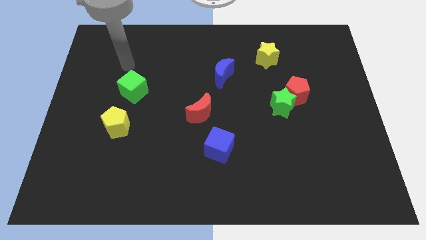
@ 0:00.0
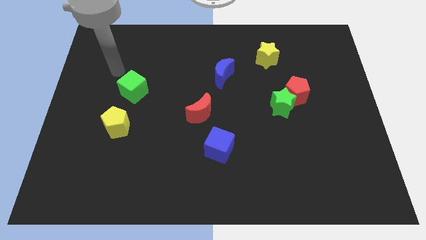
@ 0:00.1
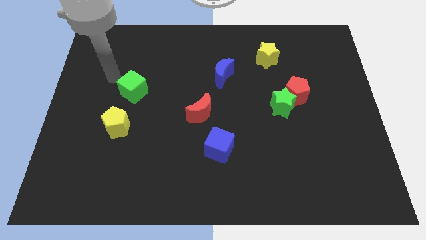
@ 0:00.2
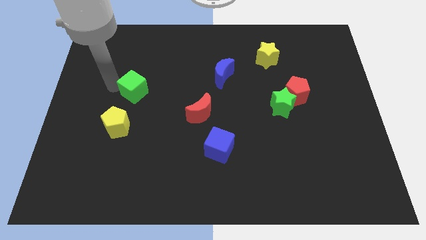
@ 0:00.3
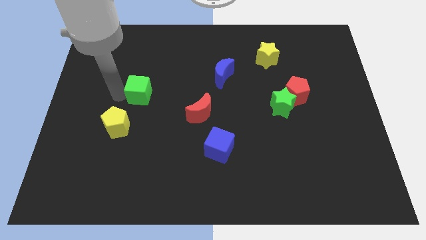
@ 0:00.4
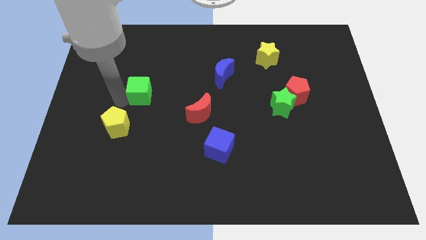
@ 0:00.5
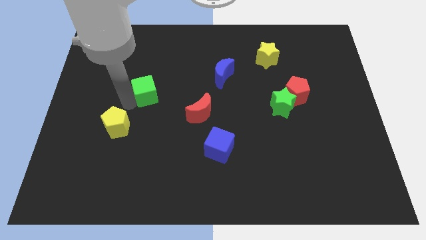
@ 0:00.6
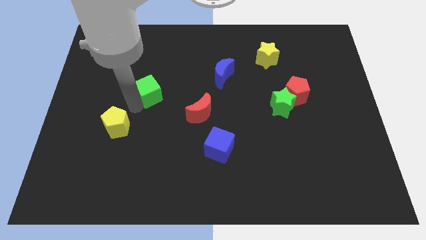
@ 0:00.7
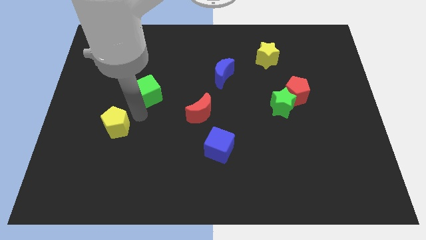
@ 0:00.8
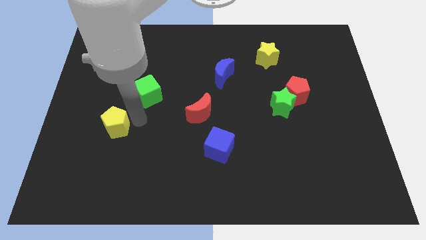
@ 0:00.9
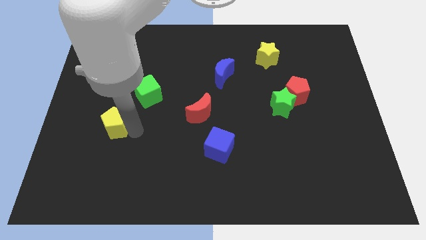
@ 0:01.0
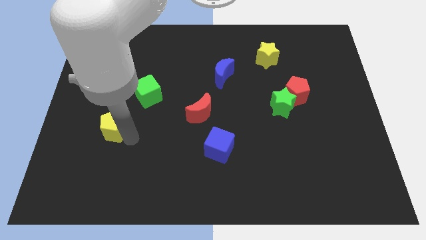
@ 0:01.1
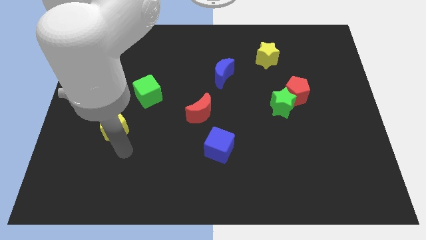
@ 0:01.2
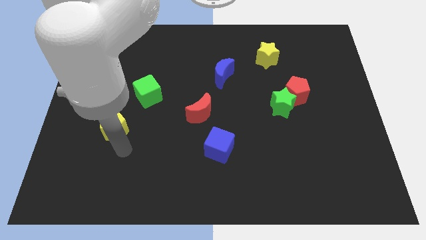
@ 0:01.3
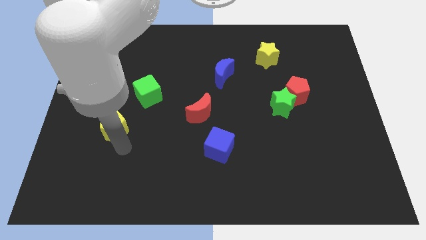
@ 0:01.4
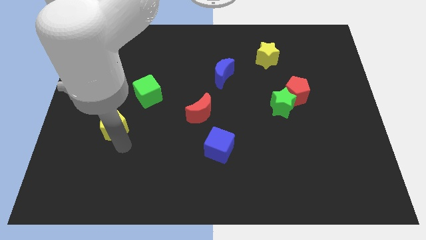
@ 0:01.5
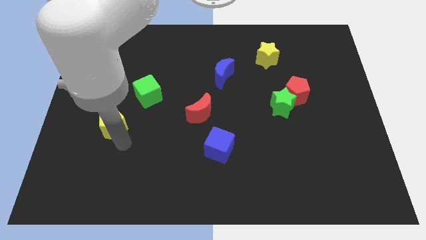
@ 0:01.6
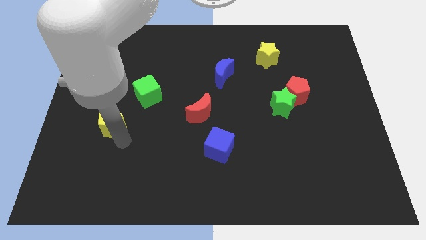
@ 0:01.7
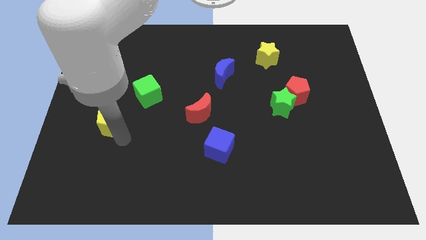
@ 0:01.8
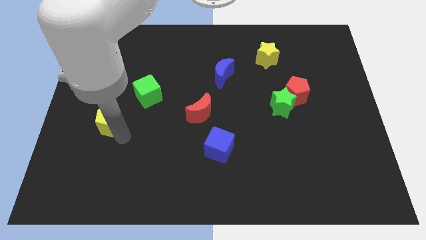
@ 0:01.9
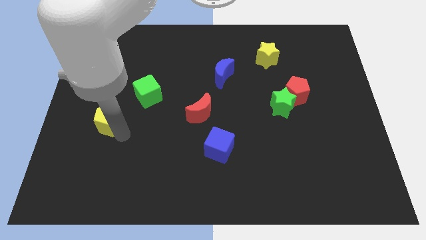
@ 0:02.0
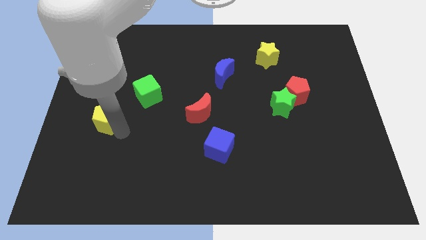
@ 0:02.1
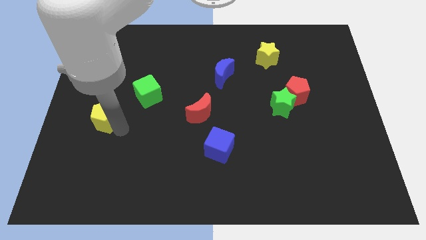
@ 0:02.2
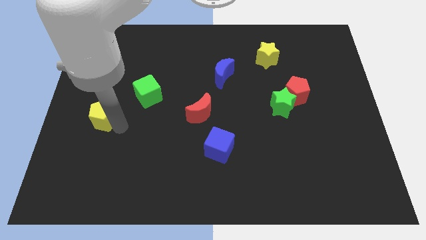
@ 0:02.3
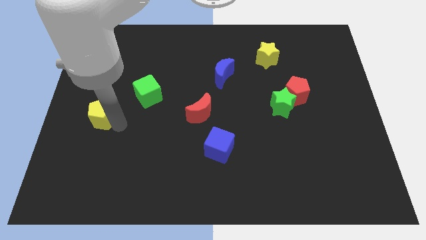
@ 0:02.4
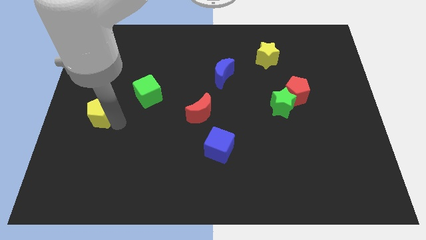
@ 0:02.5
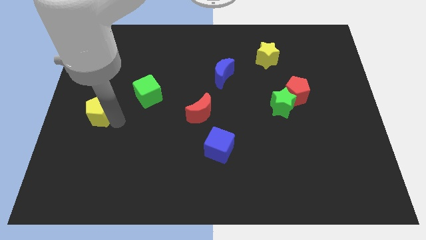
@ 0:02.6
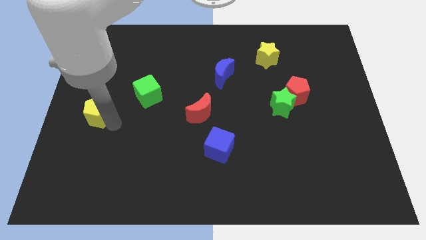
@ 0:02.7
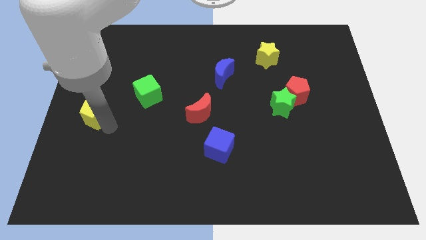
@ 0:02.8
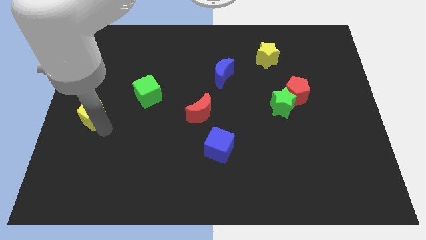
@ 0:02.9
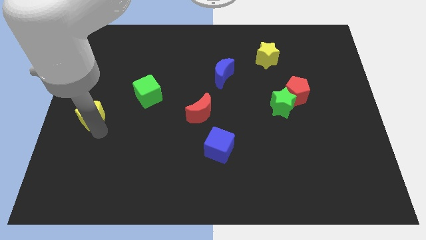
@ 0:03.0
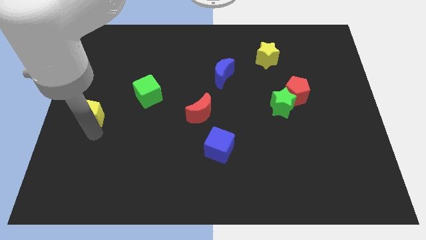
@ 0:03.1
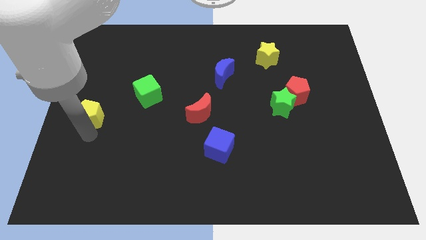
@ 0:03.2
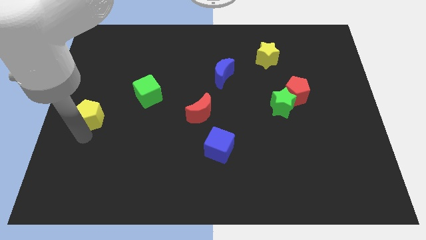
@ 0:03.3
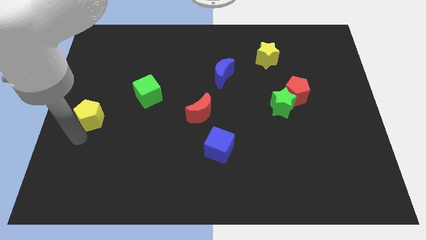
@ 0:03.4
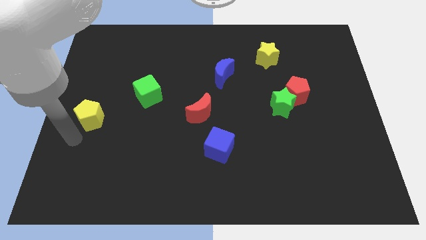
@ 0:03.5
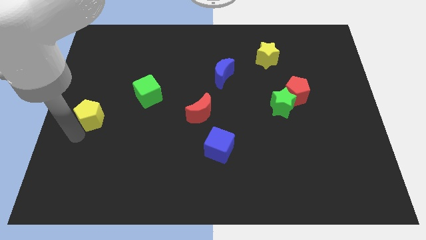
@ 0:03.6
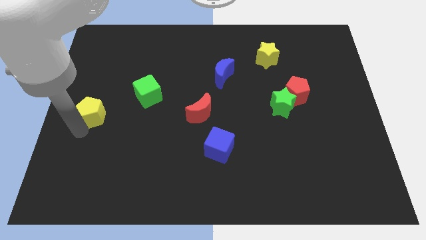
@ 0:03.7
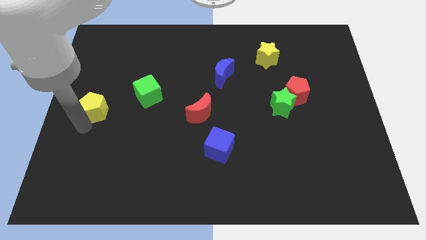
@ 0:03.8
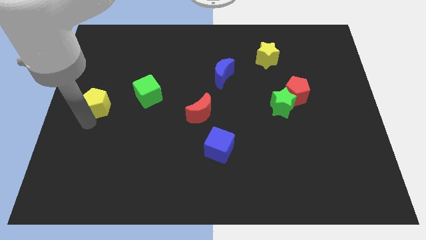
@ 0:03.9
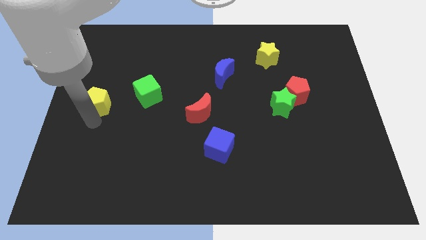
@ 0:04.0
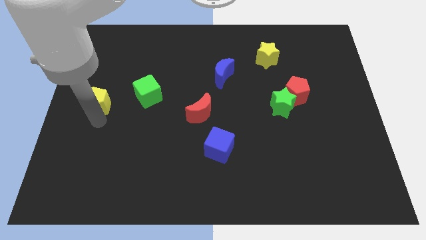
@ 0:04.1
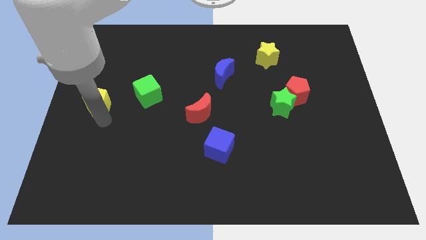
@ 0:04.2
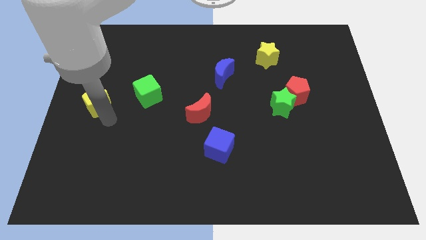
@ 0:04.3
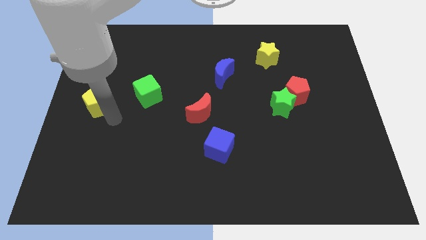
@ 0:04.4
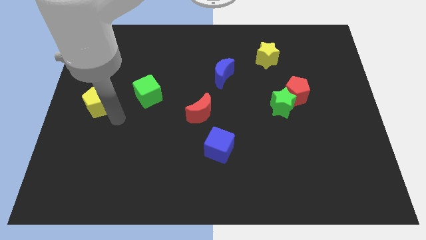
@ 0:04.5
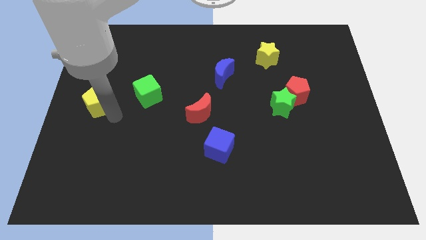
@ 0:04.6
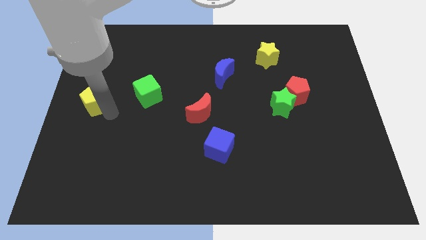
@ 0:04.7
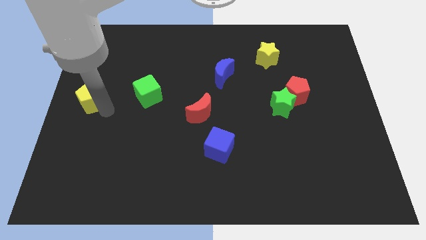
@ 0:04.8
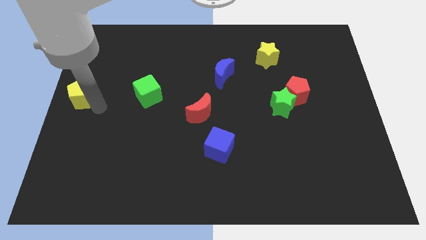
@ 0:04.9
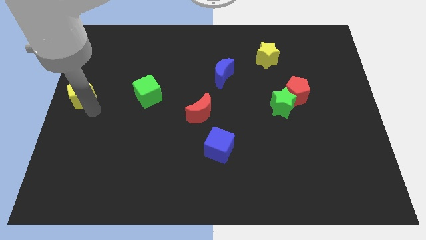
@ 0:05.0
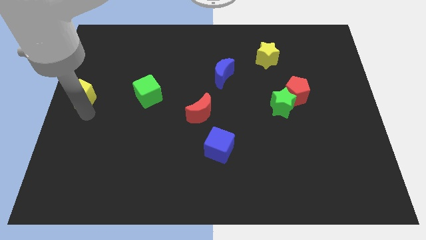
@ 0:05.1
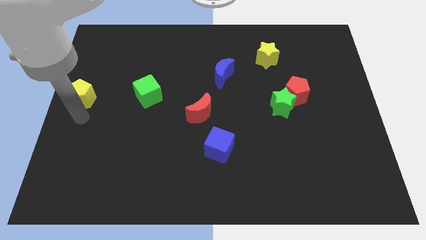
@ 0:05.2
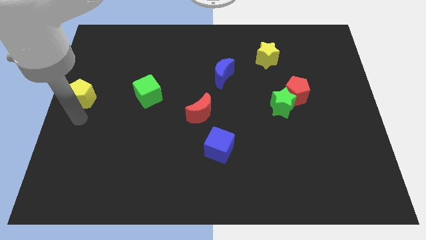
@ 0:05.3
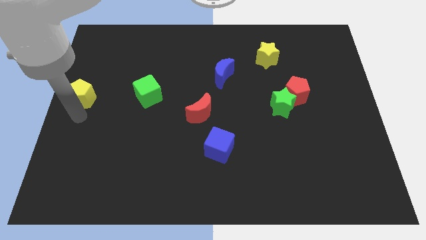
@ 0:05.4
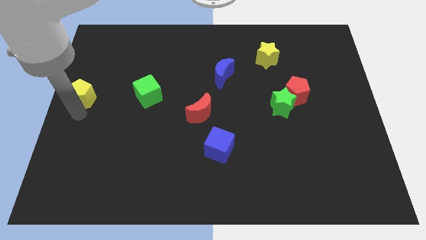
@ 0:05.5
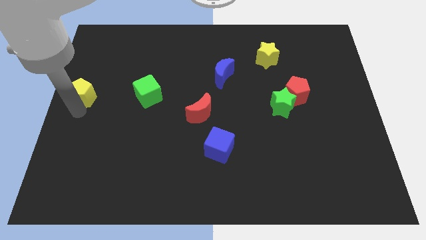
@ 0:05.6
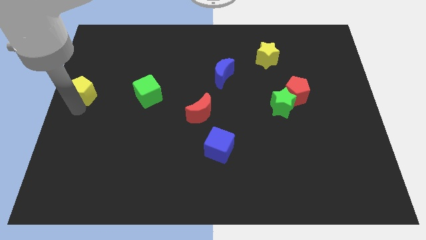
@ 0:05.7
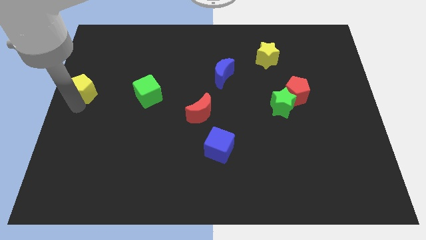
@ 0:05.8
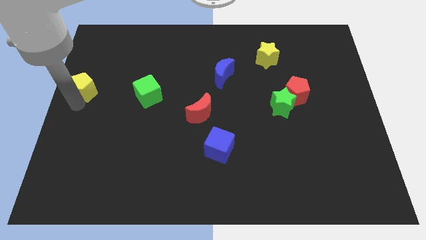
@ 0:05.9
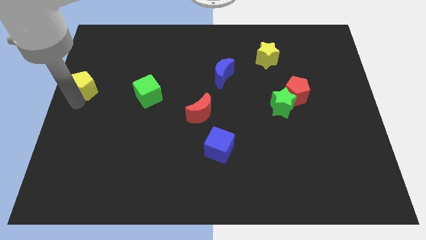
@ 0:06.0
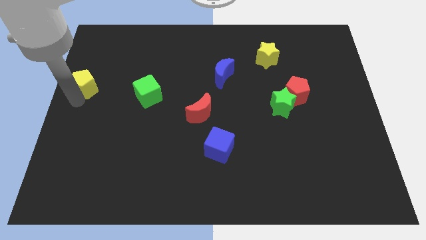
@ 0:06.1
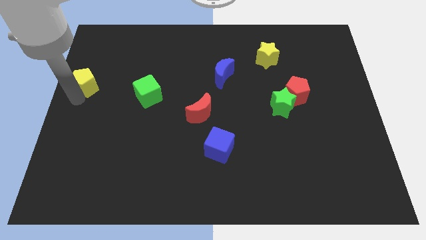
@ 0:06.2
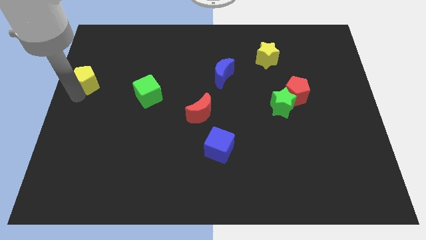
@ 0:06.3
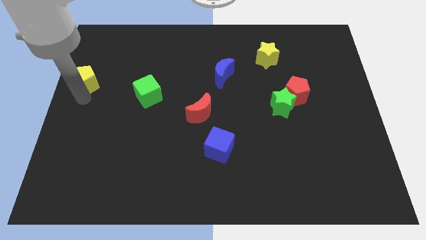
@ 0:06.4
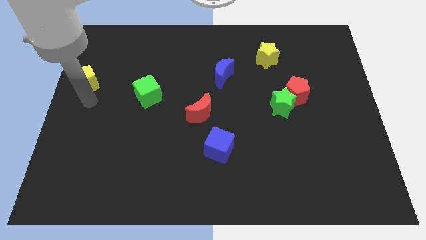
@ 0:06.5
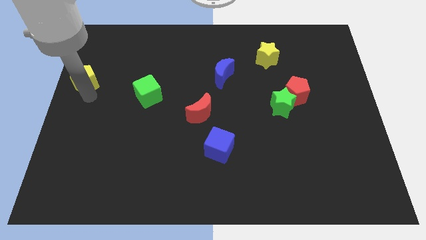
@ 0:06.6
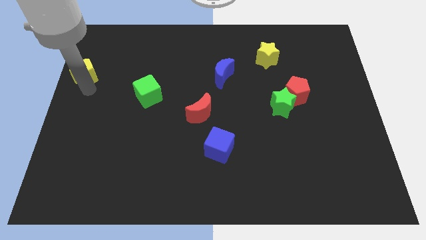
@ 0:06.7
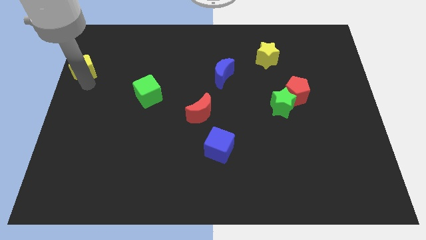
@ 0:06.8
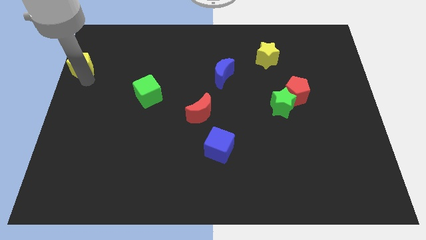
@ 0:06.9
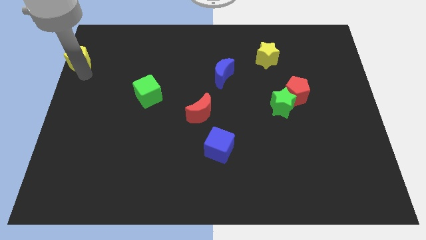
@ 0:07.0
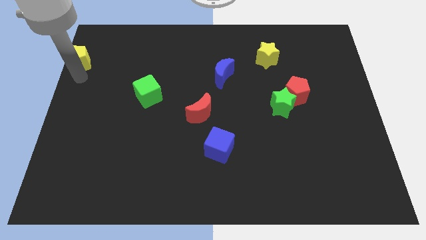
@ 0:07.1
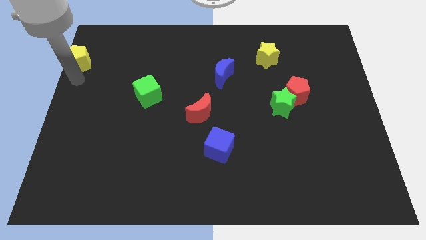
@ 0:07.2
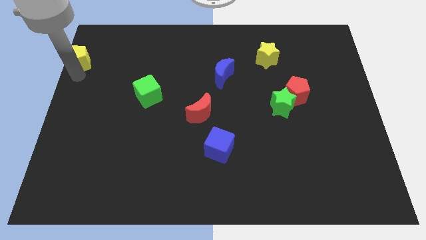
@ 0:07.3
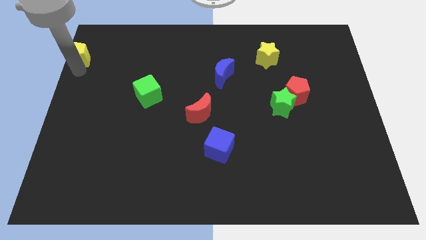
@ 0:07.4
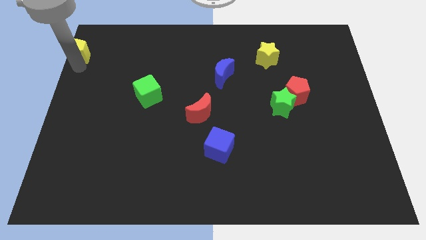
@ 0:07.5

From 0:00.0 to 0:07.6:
push the yellow pentagon to the top left of the board
